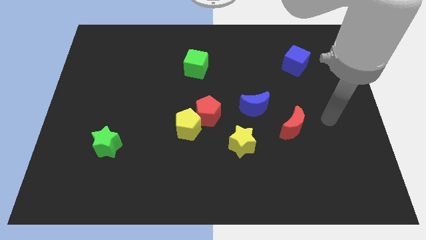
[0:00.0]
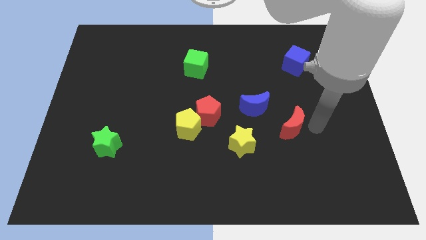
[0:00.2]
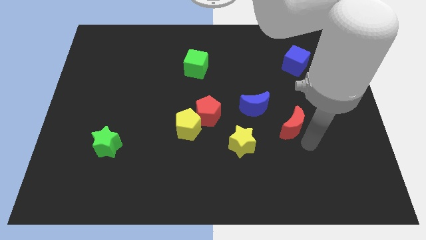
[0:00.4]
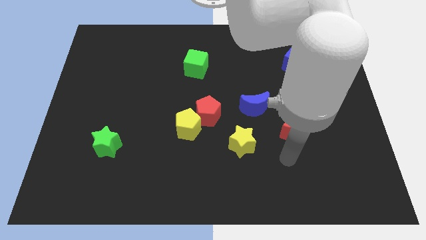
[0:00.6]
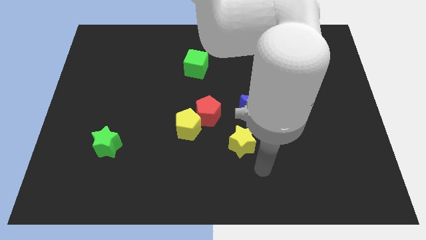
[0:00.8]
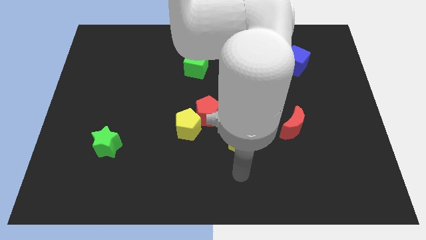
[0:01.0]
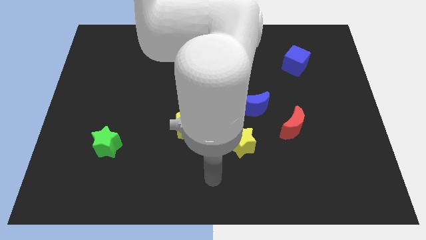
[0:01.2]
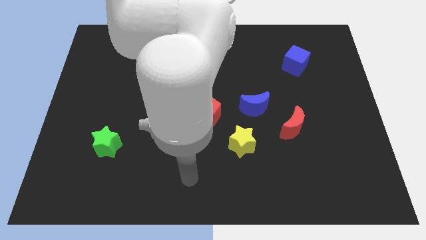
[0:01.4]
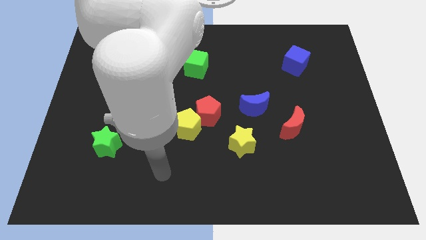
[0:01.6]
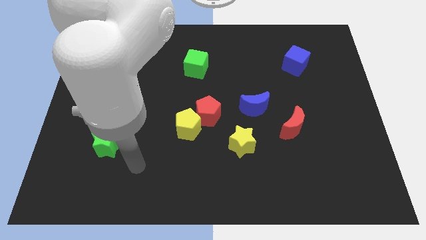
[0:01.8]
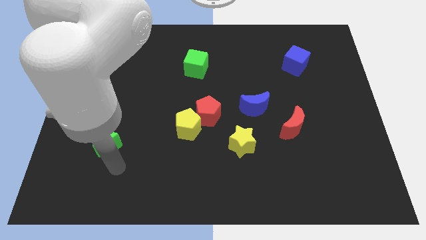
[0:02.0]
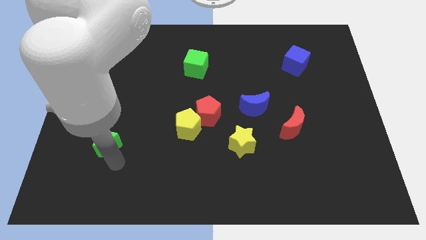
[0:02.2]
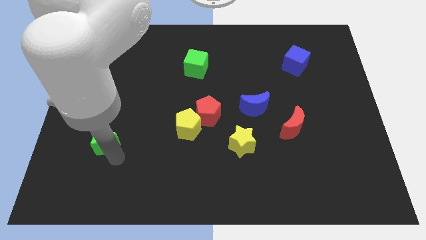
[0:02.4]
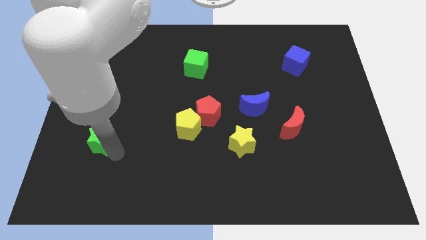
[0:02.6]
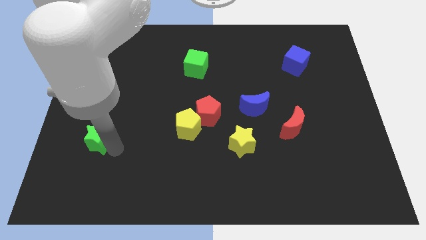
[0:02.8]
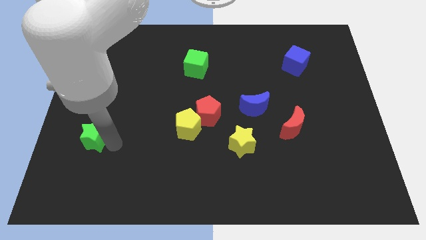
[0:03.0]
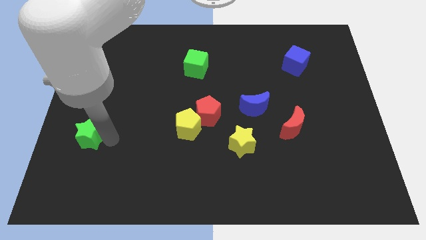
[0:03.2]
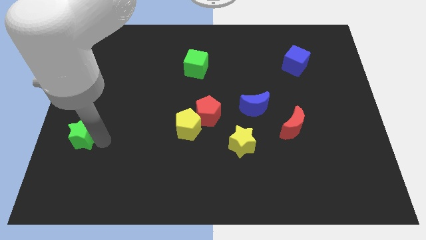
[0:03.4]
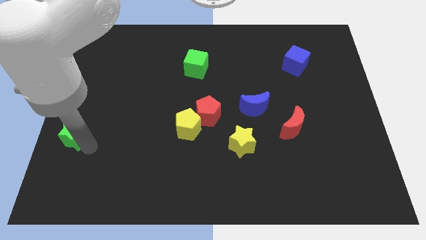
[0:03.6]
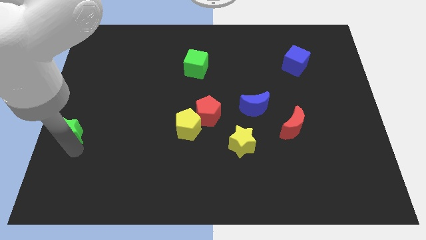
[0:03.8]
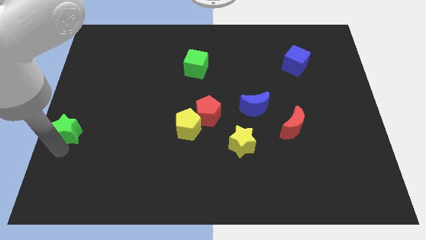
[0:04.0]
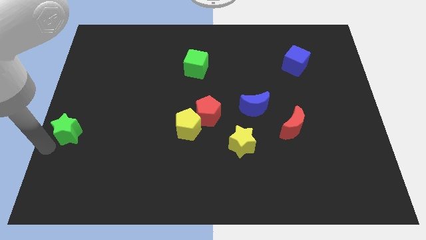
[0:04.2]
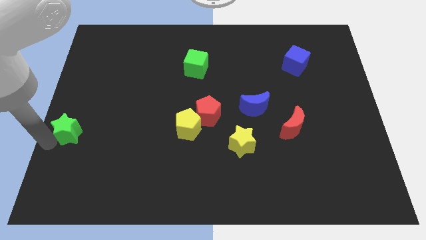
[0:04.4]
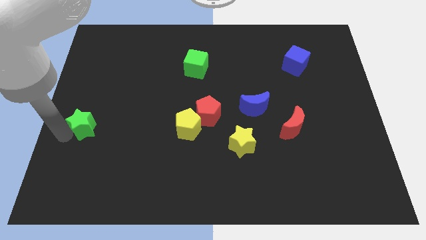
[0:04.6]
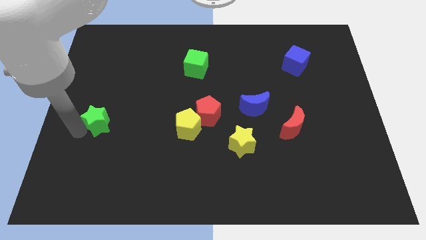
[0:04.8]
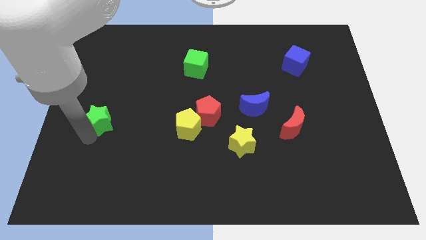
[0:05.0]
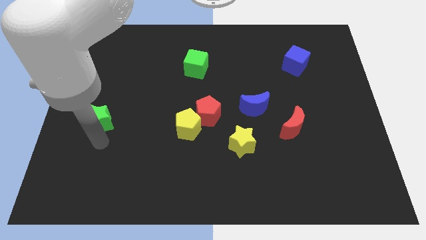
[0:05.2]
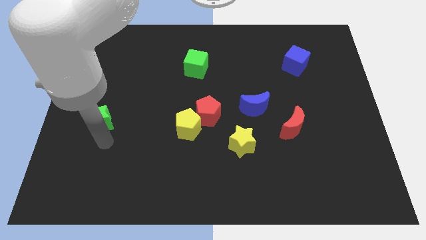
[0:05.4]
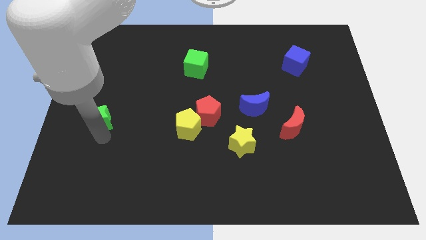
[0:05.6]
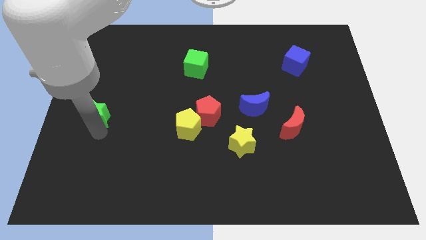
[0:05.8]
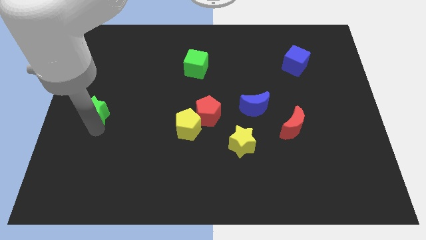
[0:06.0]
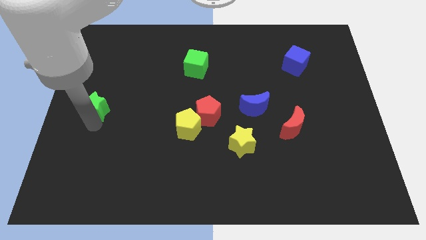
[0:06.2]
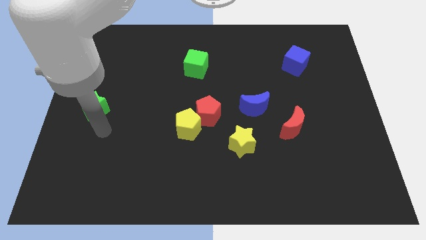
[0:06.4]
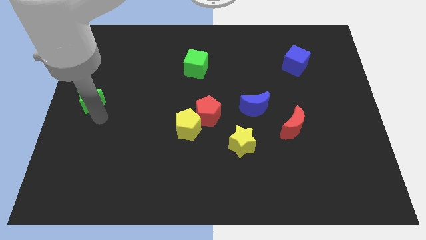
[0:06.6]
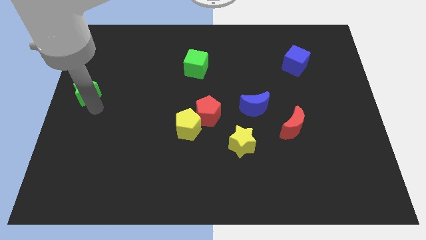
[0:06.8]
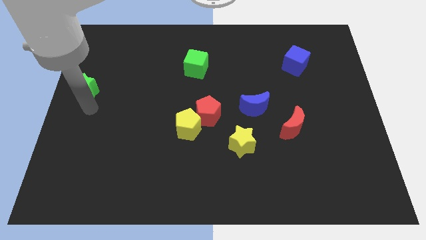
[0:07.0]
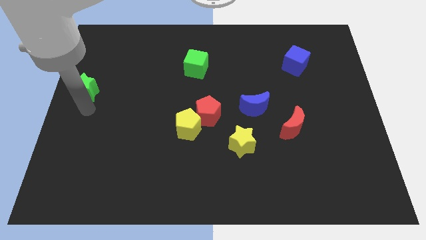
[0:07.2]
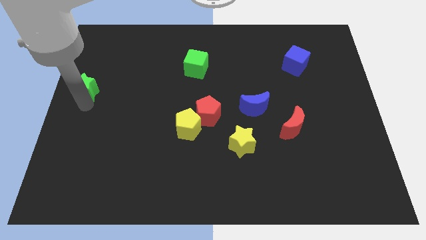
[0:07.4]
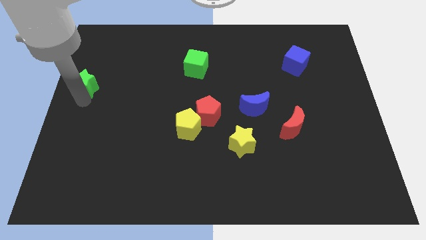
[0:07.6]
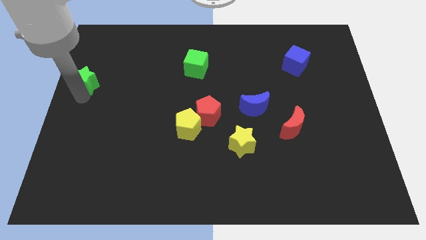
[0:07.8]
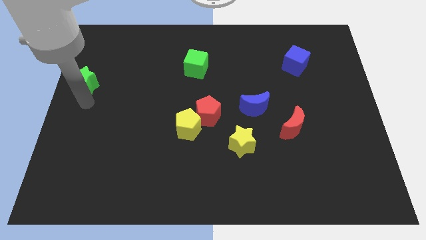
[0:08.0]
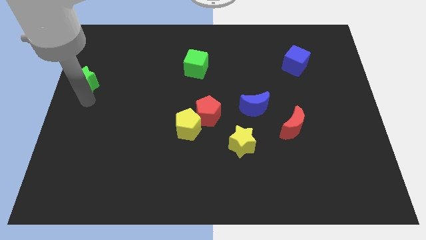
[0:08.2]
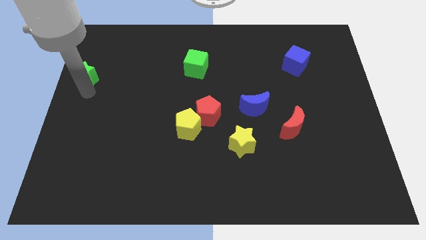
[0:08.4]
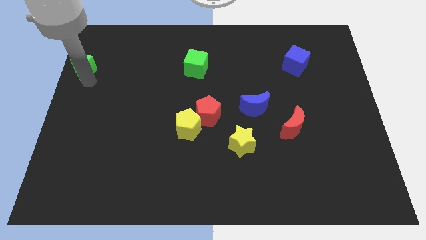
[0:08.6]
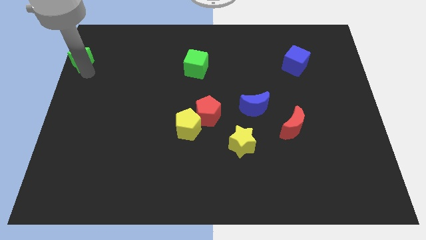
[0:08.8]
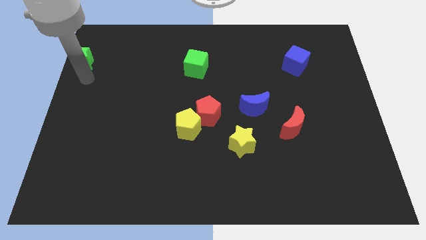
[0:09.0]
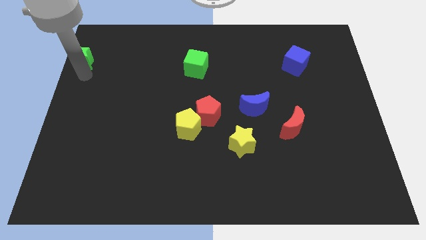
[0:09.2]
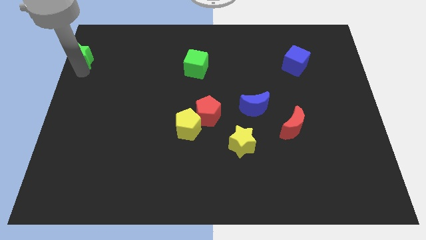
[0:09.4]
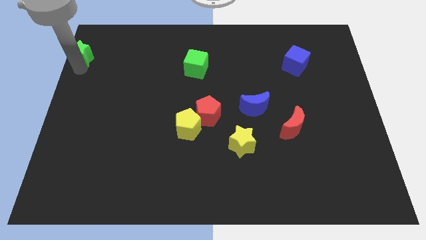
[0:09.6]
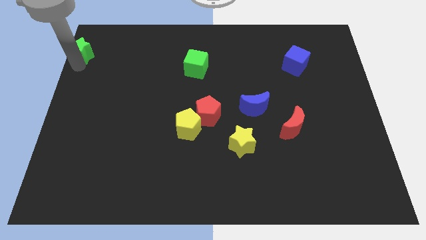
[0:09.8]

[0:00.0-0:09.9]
put the green star to the top left

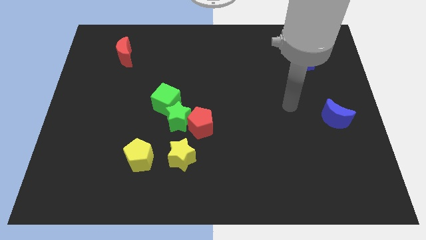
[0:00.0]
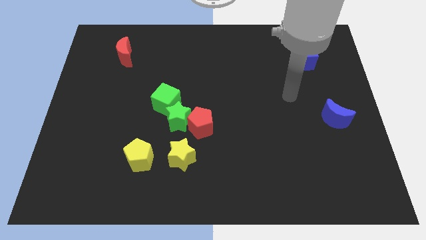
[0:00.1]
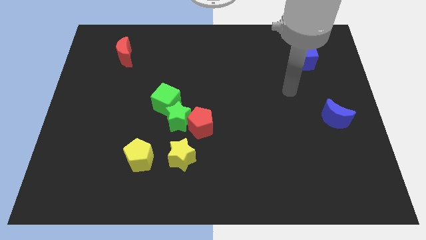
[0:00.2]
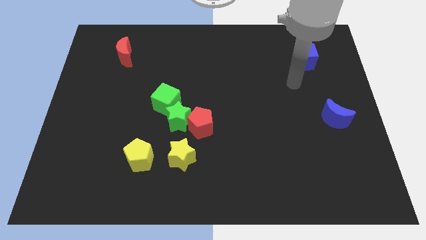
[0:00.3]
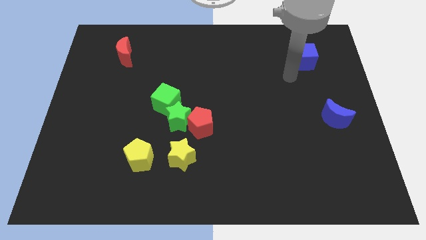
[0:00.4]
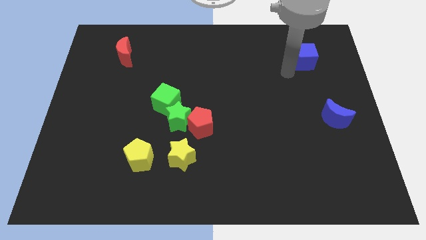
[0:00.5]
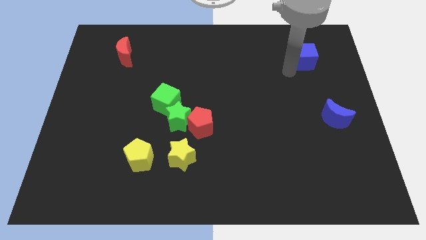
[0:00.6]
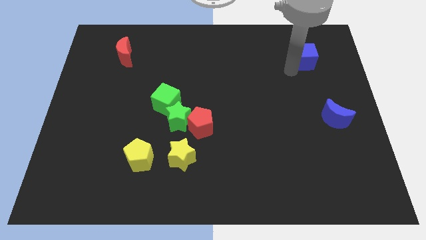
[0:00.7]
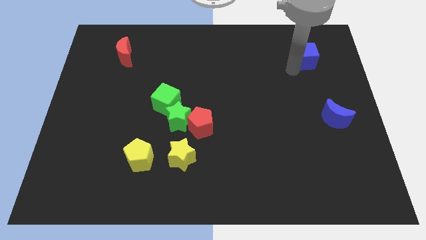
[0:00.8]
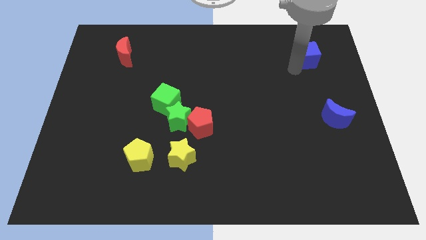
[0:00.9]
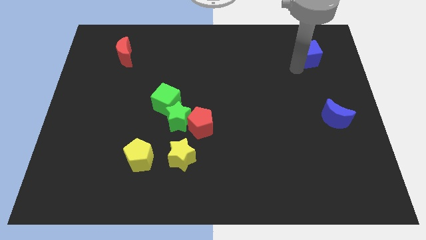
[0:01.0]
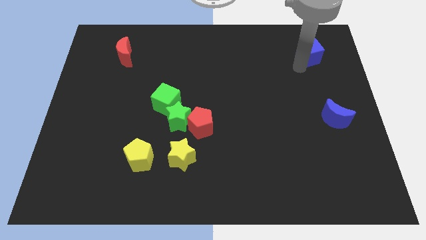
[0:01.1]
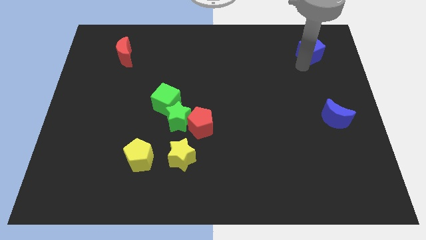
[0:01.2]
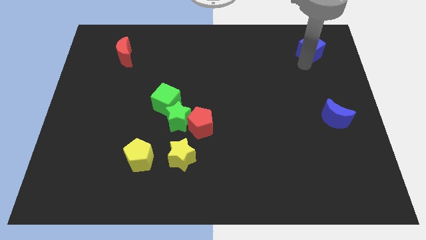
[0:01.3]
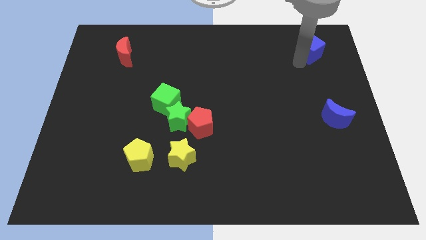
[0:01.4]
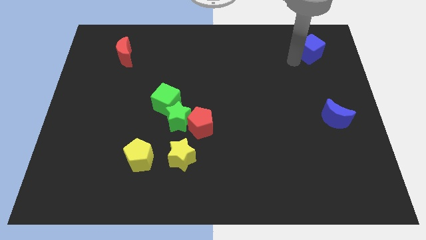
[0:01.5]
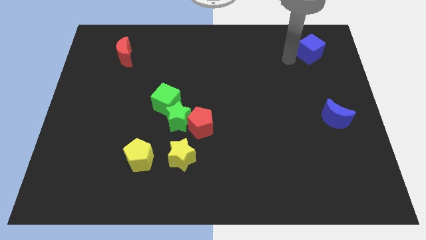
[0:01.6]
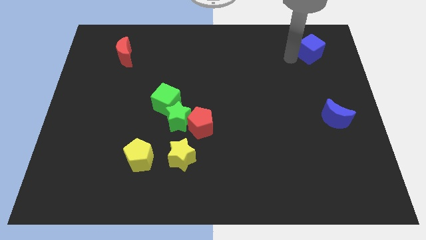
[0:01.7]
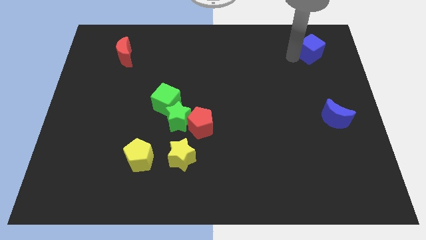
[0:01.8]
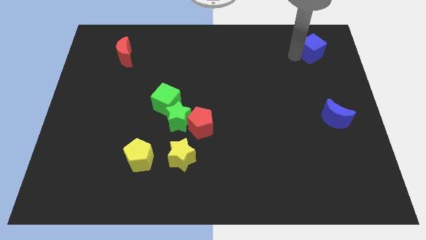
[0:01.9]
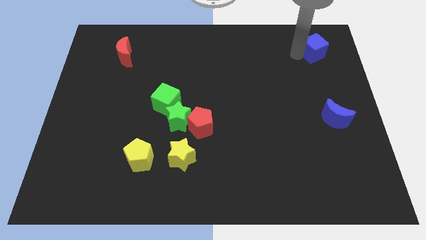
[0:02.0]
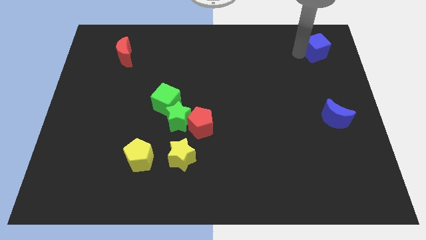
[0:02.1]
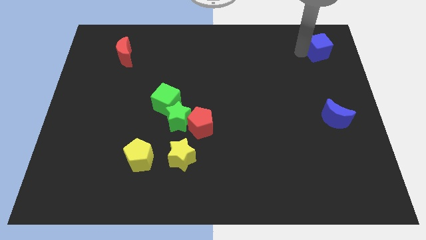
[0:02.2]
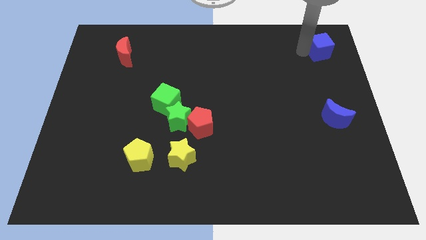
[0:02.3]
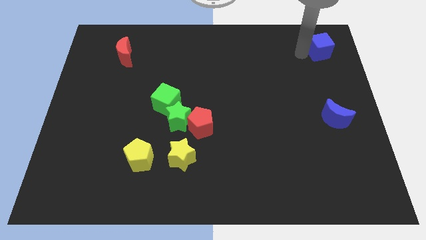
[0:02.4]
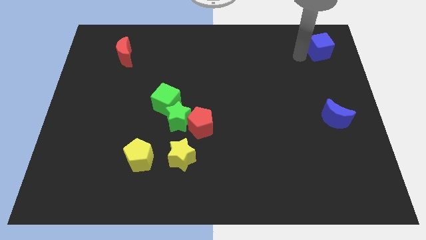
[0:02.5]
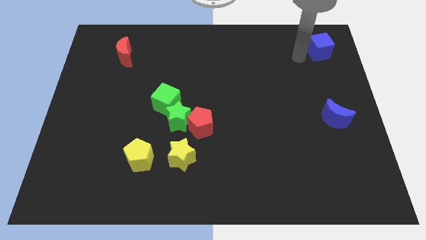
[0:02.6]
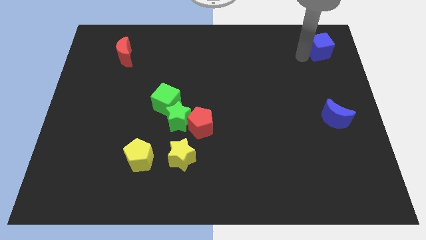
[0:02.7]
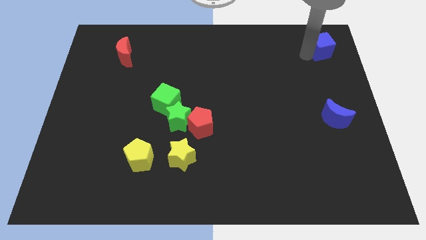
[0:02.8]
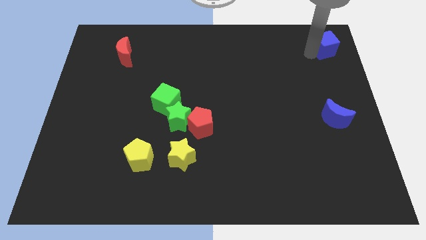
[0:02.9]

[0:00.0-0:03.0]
push the blue cube to the top right of the board
